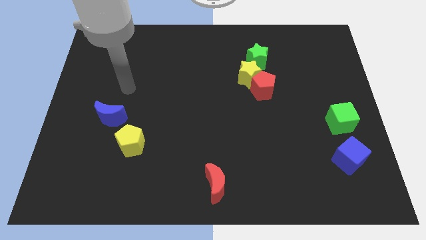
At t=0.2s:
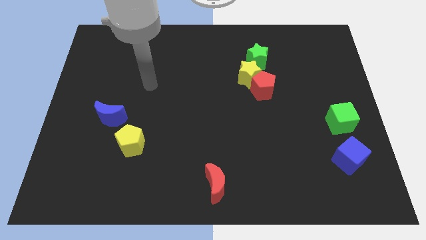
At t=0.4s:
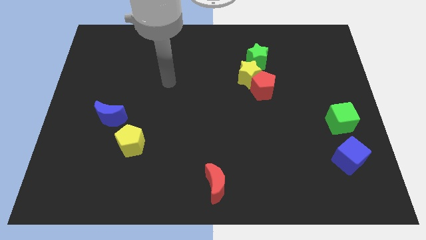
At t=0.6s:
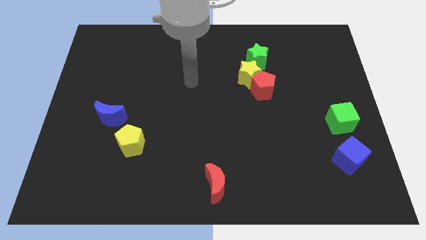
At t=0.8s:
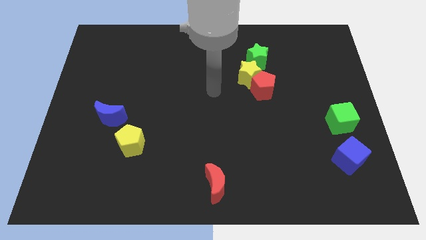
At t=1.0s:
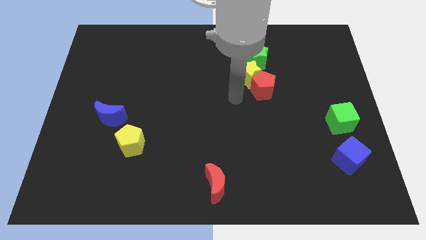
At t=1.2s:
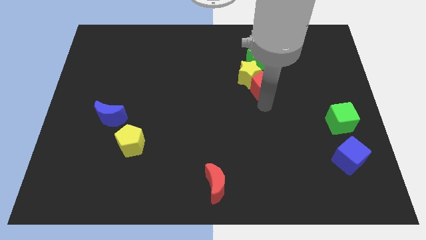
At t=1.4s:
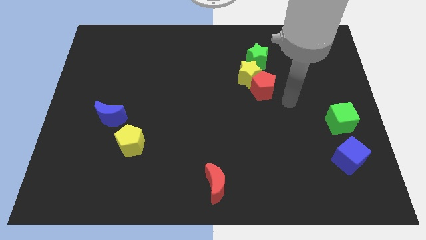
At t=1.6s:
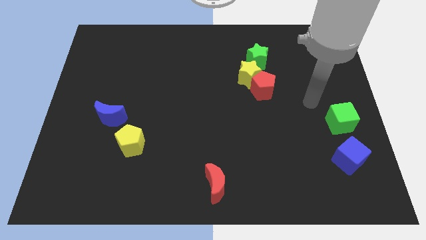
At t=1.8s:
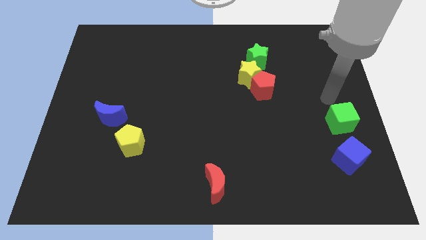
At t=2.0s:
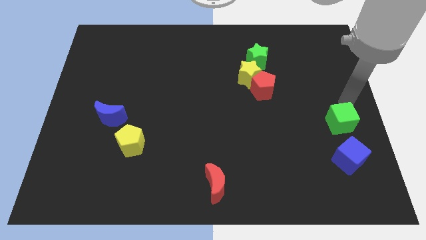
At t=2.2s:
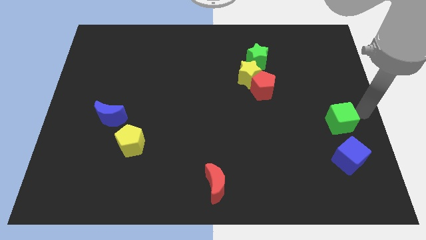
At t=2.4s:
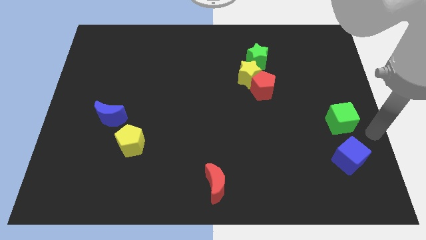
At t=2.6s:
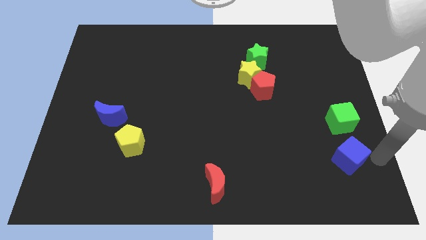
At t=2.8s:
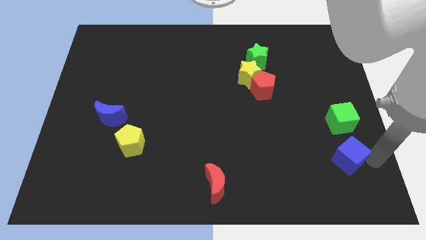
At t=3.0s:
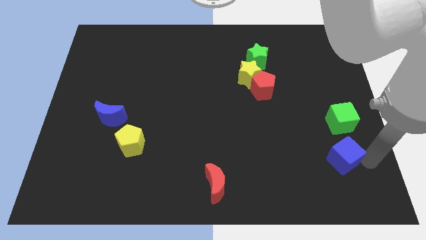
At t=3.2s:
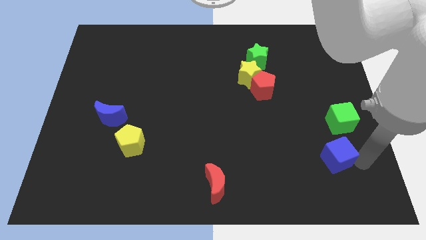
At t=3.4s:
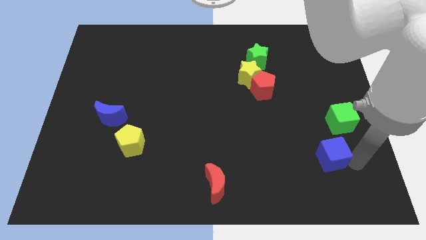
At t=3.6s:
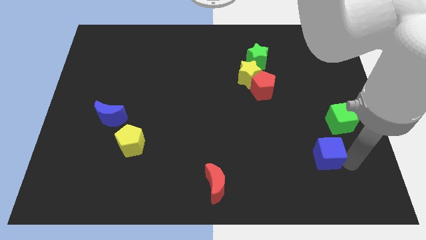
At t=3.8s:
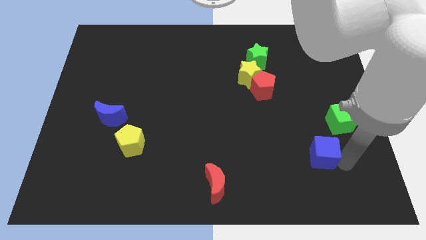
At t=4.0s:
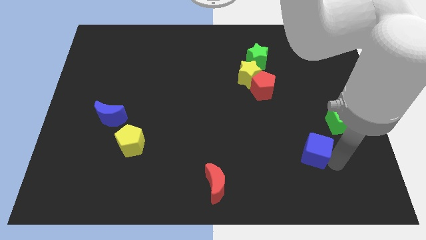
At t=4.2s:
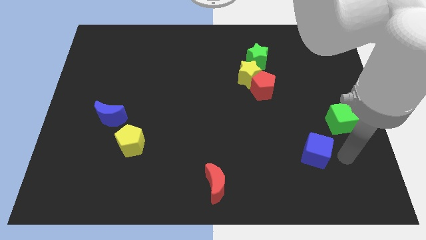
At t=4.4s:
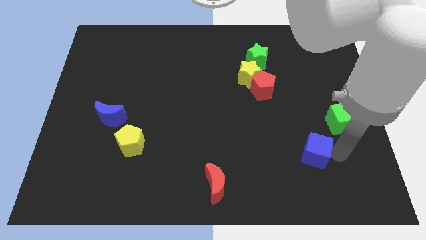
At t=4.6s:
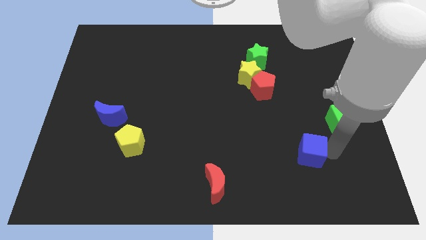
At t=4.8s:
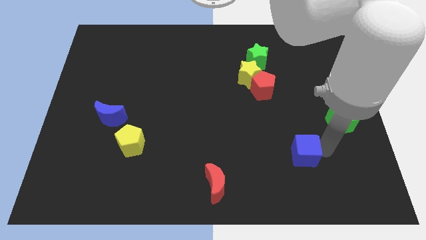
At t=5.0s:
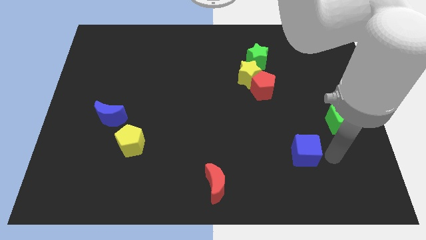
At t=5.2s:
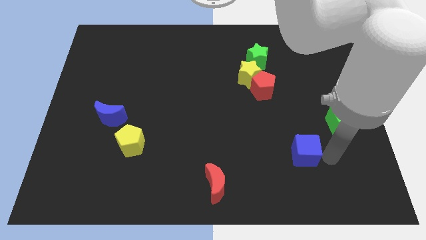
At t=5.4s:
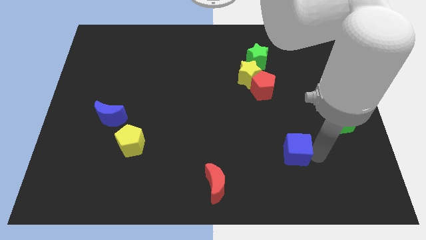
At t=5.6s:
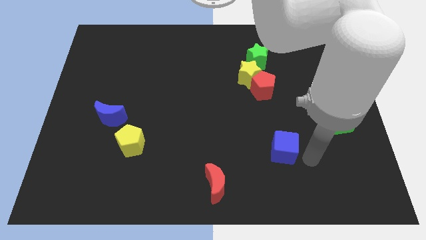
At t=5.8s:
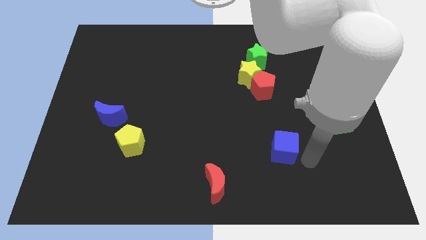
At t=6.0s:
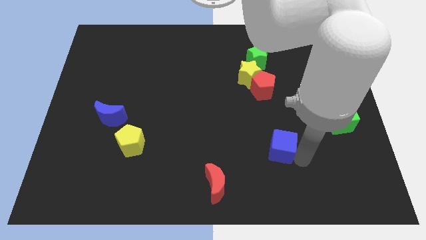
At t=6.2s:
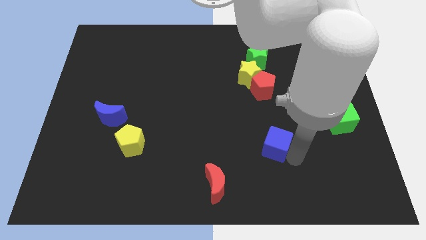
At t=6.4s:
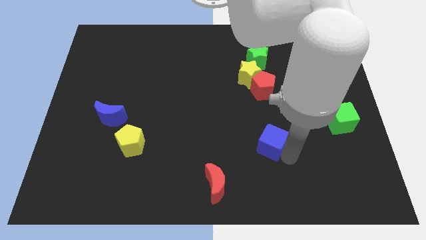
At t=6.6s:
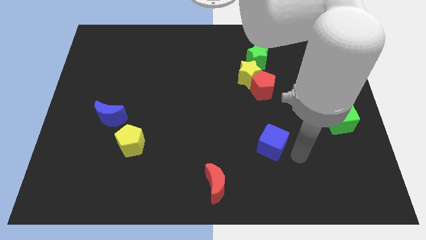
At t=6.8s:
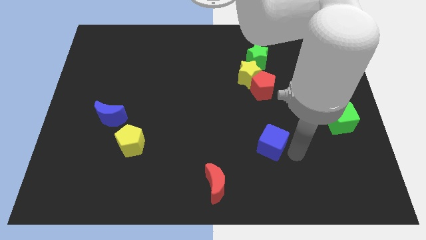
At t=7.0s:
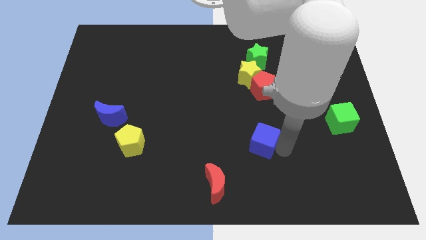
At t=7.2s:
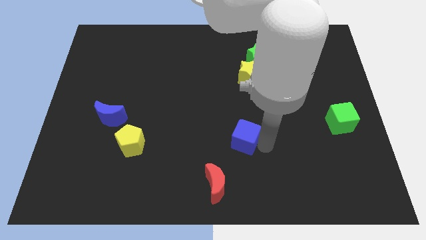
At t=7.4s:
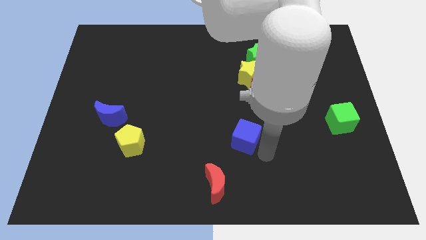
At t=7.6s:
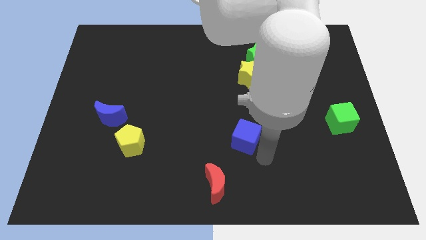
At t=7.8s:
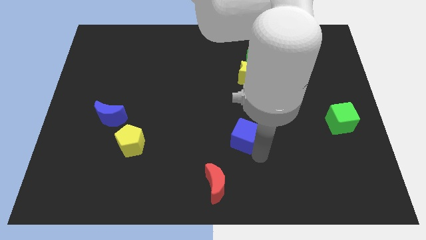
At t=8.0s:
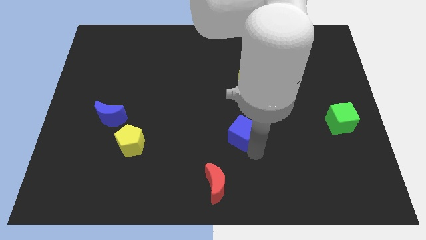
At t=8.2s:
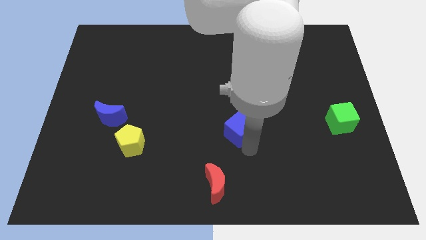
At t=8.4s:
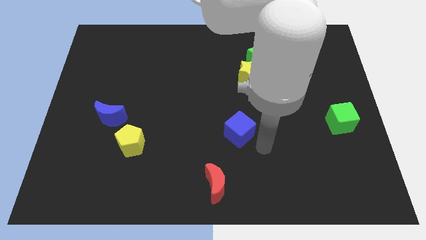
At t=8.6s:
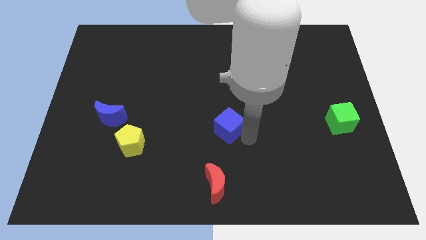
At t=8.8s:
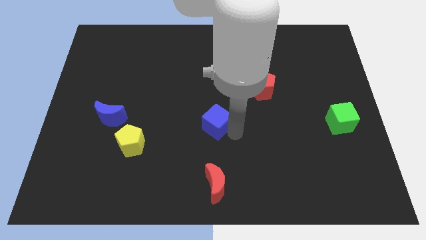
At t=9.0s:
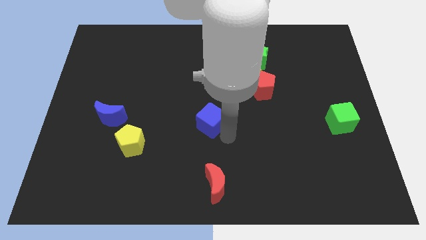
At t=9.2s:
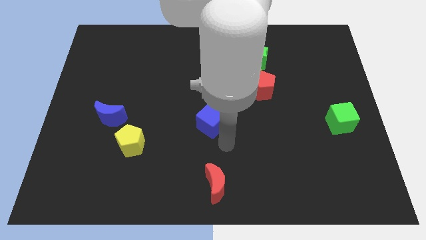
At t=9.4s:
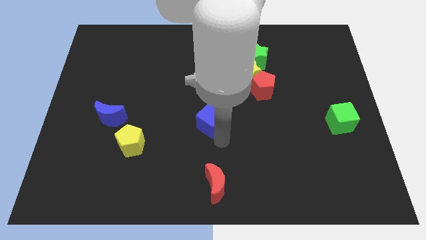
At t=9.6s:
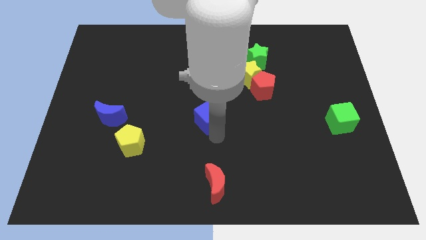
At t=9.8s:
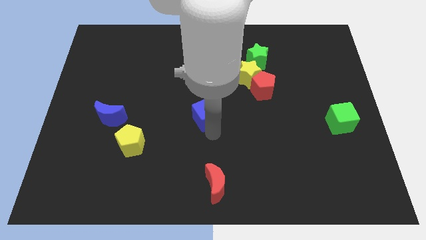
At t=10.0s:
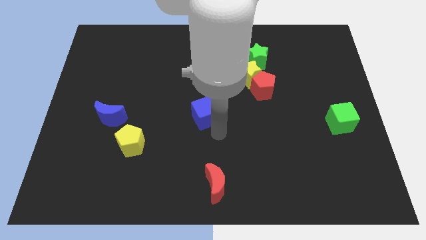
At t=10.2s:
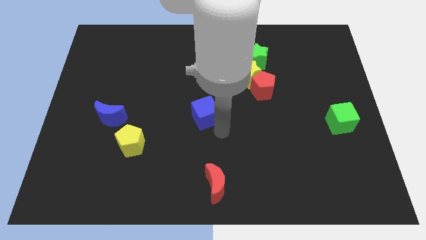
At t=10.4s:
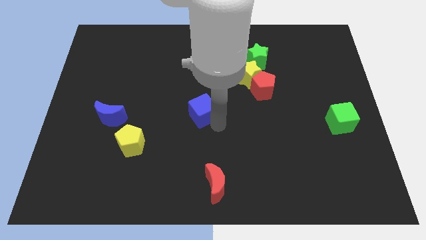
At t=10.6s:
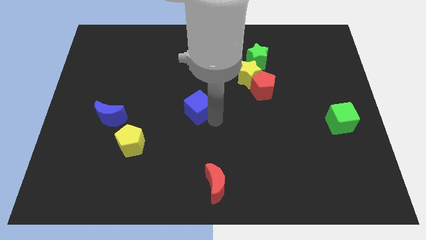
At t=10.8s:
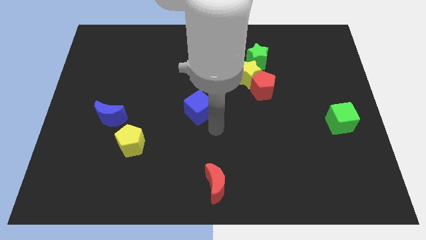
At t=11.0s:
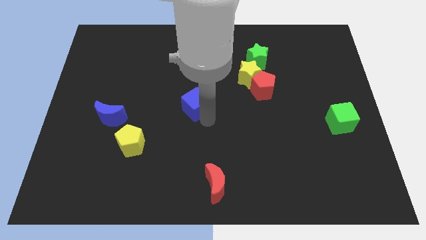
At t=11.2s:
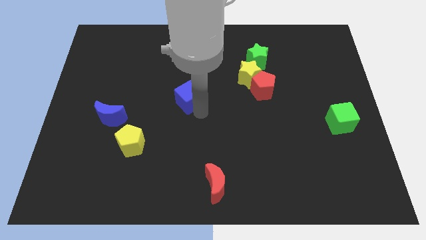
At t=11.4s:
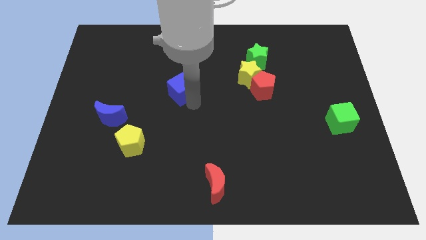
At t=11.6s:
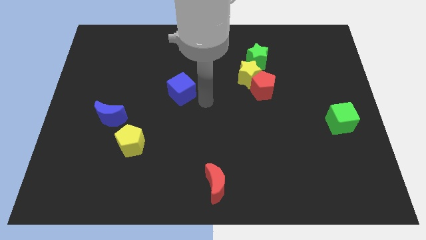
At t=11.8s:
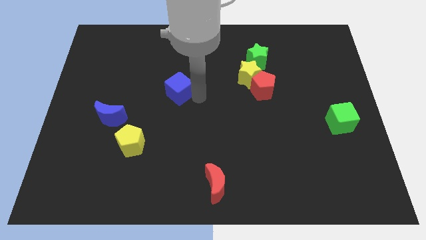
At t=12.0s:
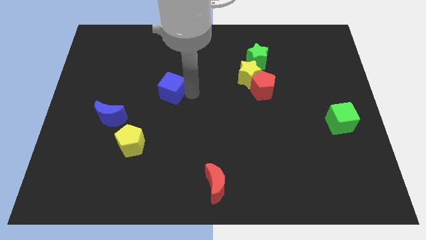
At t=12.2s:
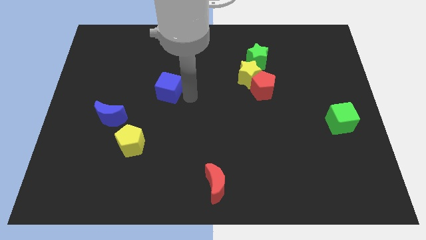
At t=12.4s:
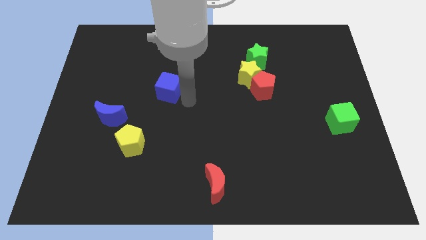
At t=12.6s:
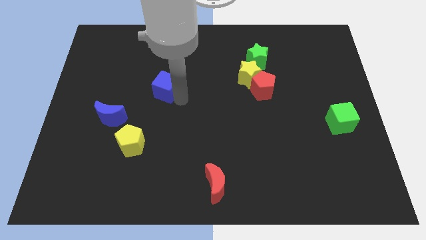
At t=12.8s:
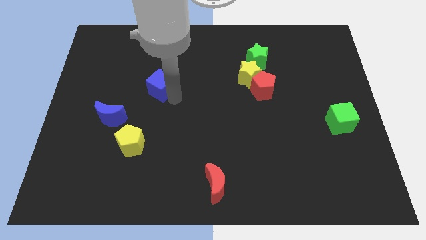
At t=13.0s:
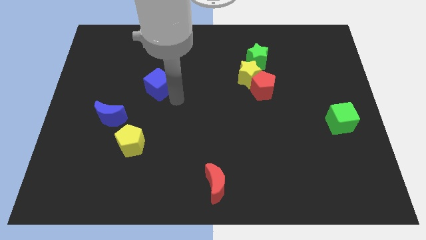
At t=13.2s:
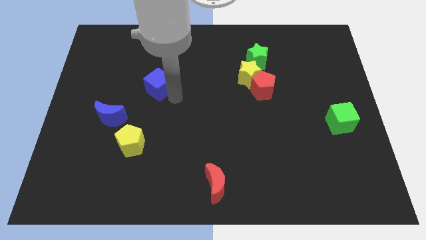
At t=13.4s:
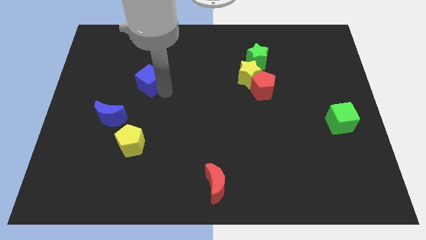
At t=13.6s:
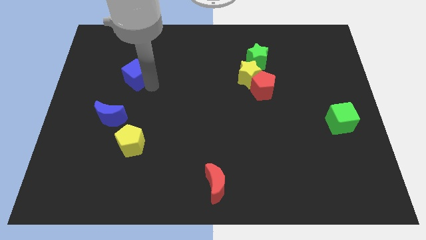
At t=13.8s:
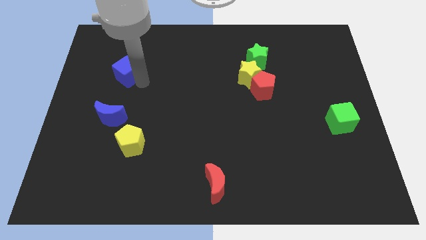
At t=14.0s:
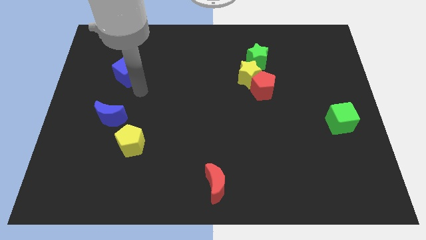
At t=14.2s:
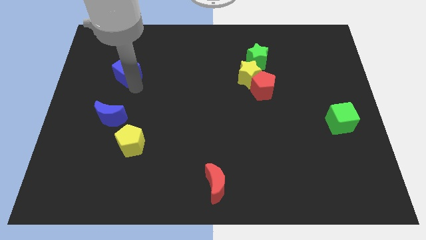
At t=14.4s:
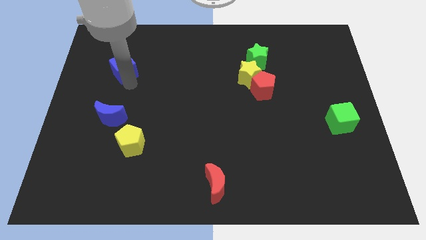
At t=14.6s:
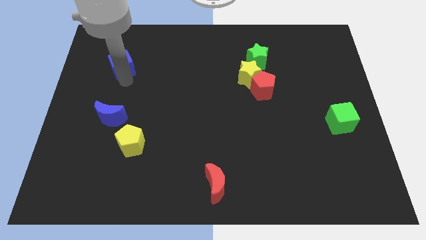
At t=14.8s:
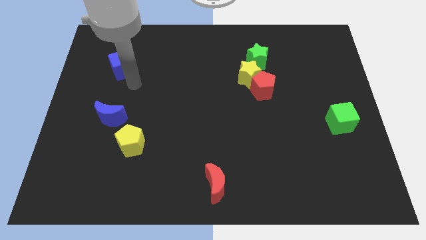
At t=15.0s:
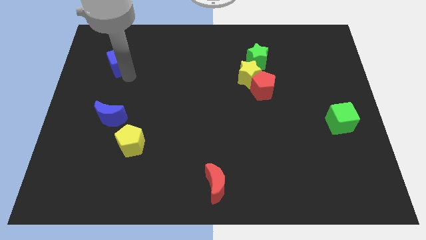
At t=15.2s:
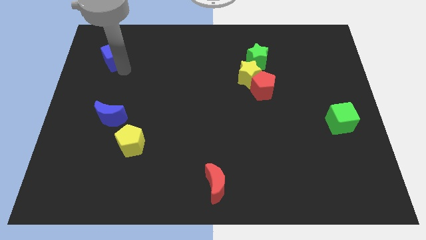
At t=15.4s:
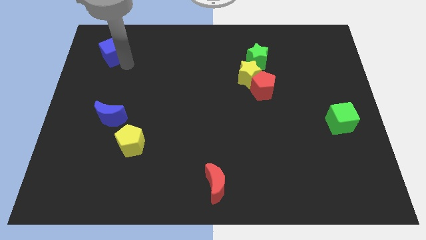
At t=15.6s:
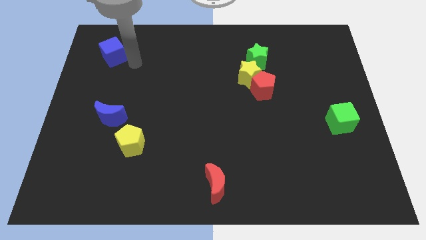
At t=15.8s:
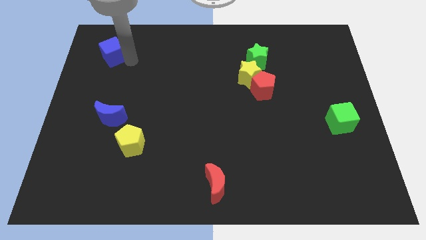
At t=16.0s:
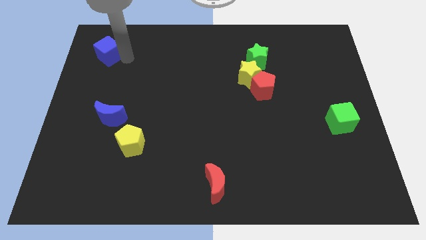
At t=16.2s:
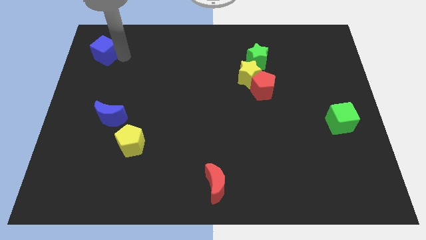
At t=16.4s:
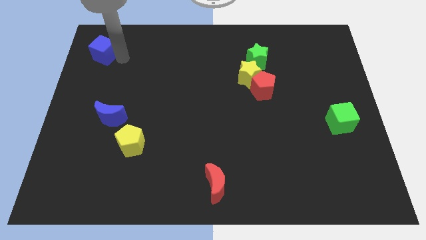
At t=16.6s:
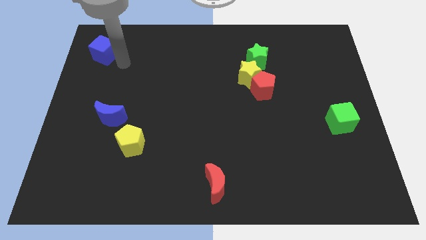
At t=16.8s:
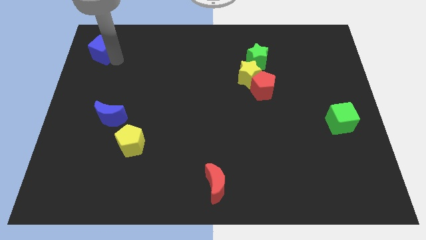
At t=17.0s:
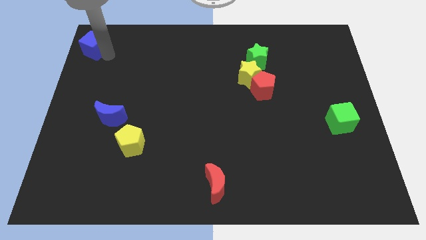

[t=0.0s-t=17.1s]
slide the blue cube to the top left corner
